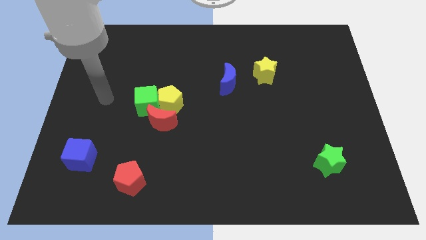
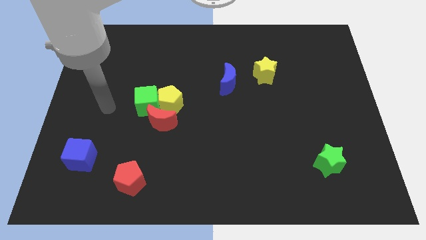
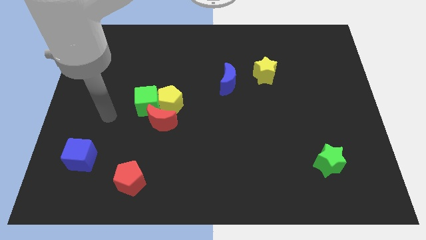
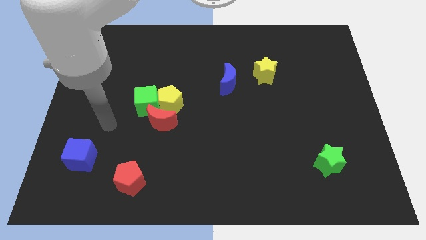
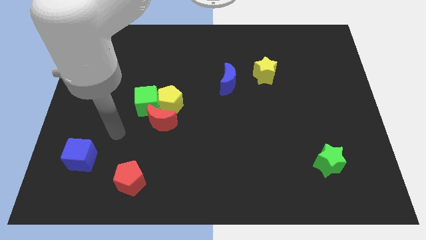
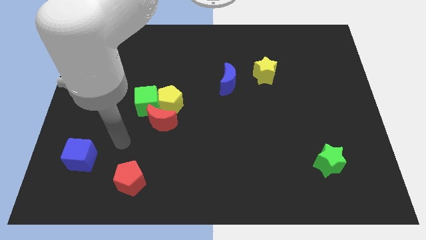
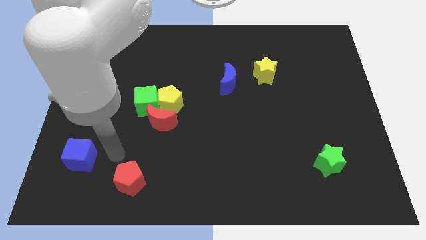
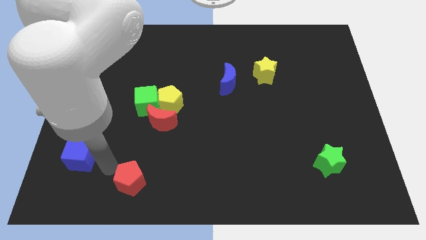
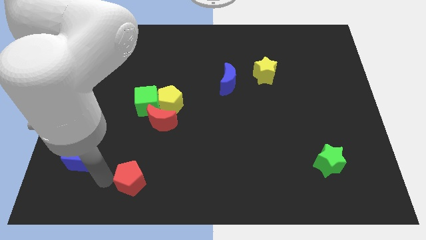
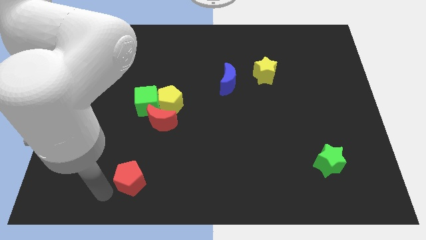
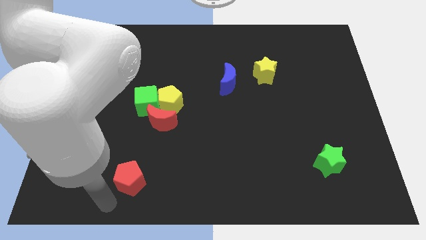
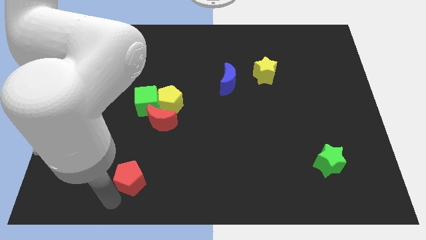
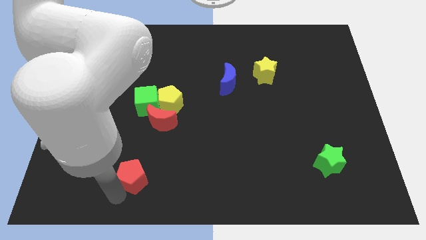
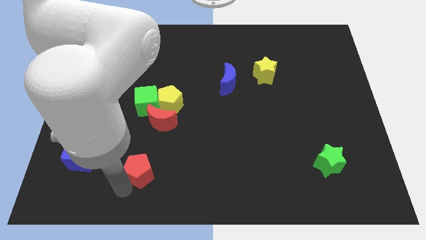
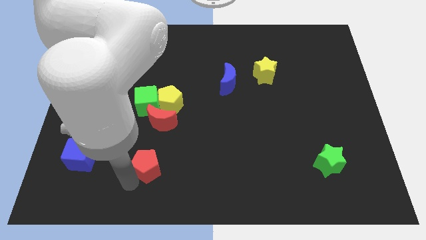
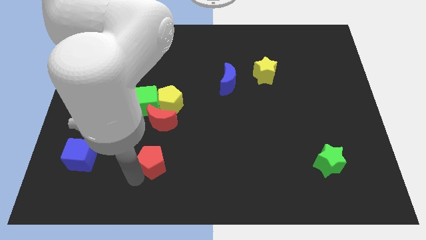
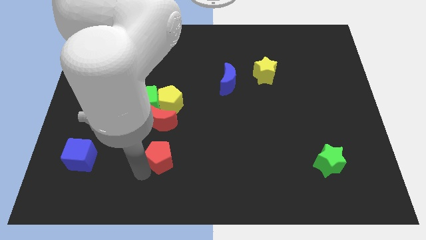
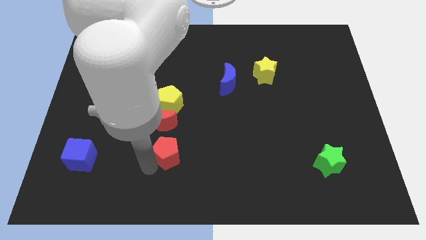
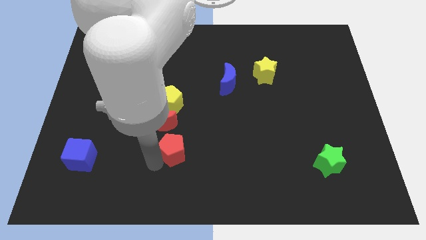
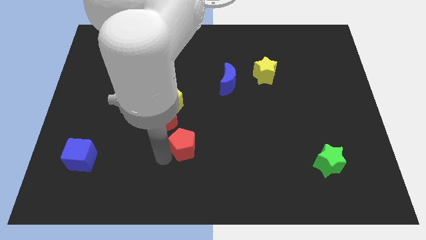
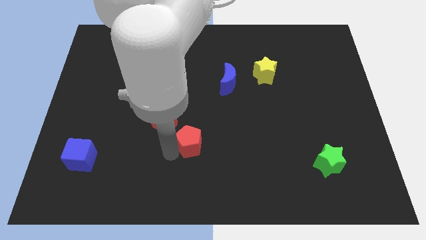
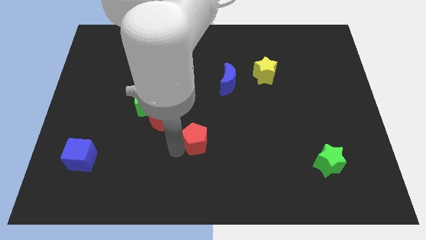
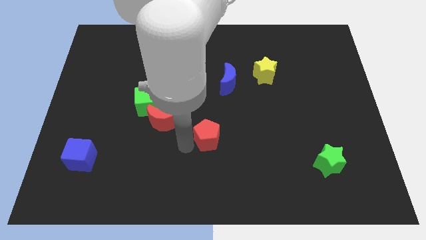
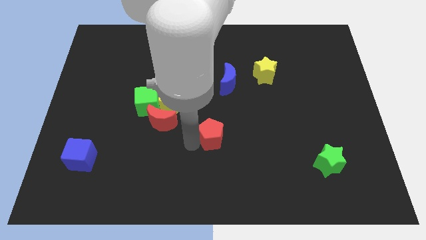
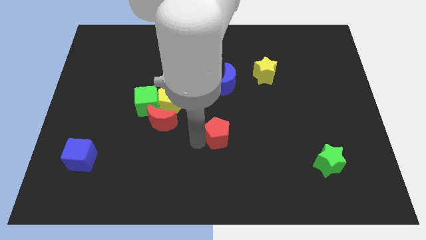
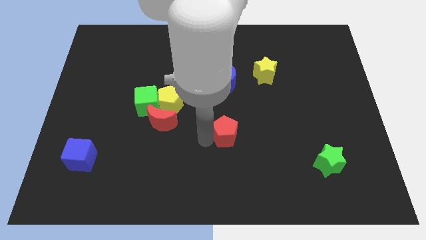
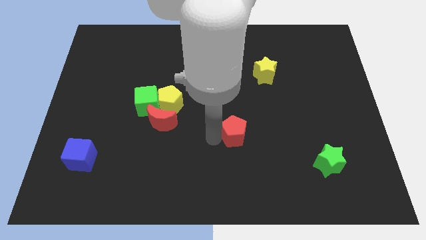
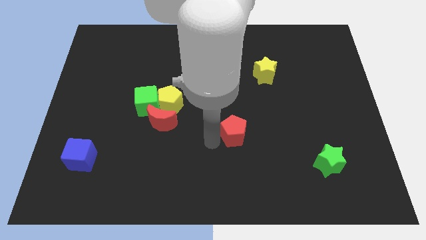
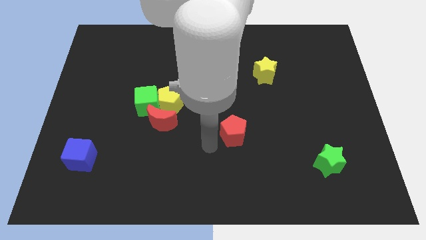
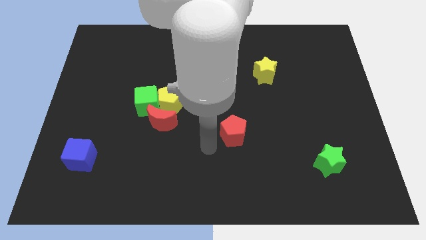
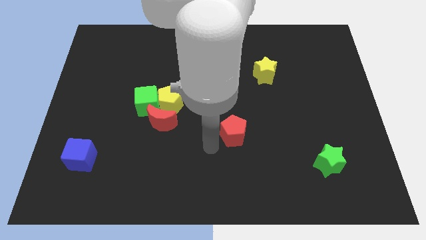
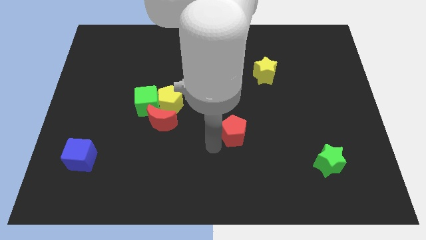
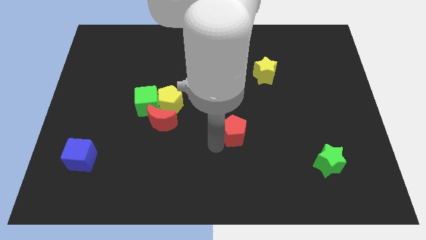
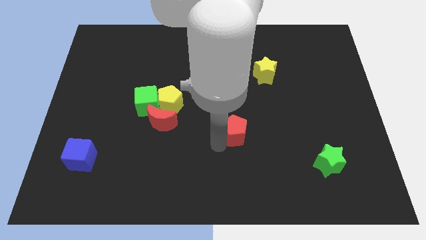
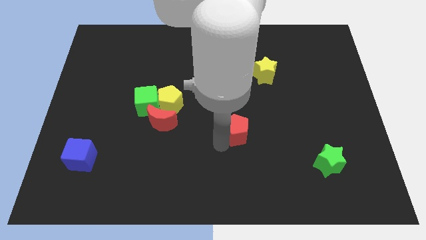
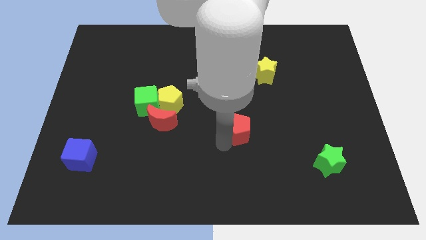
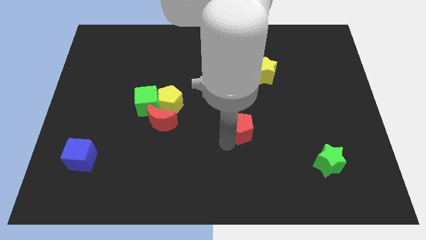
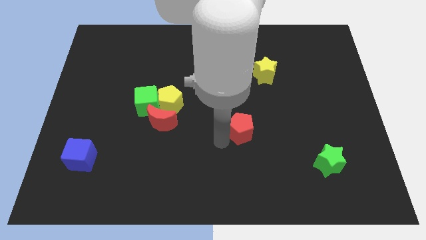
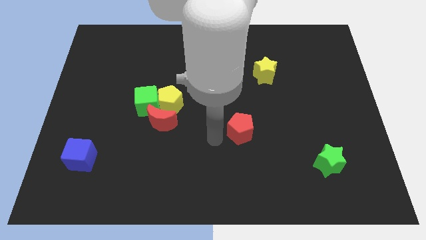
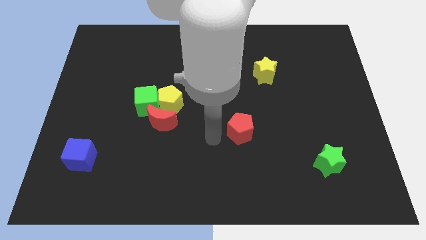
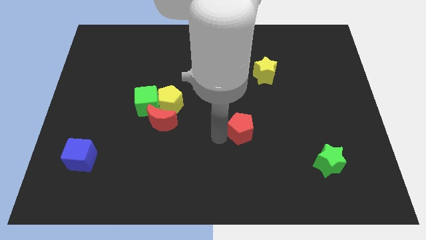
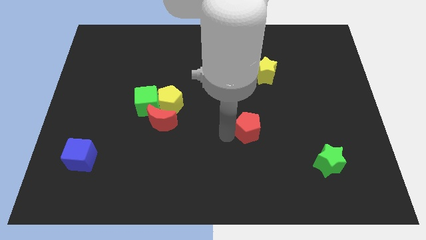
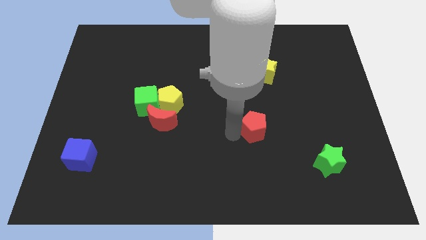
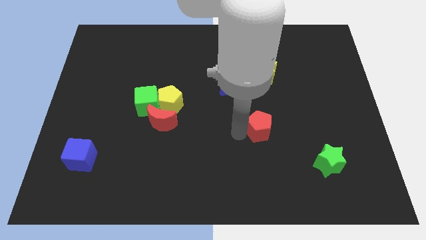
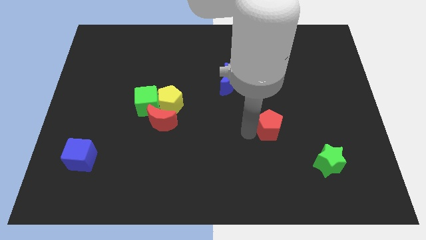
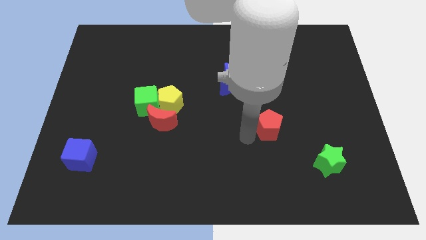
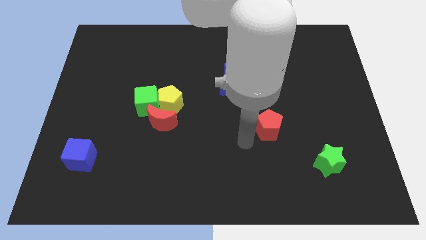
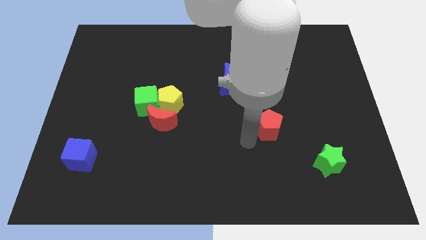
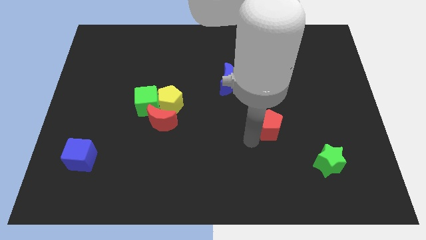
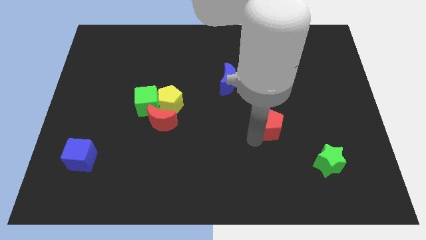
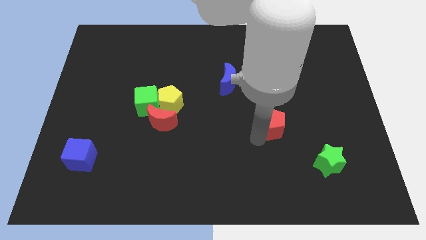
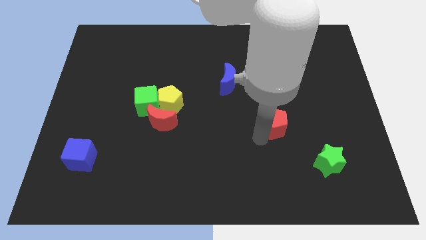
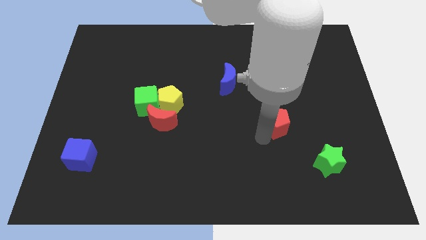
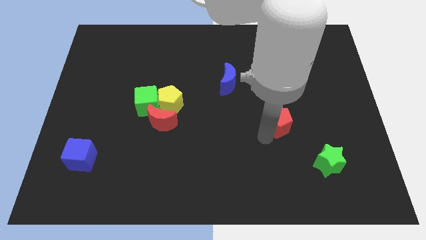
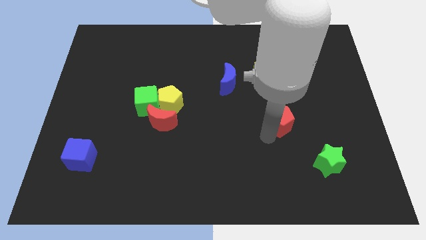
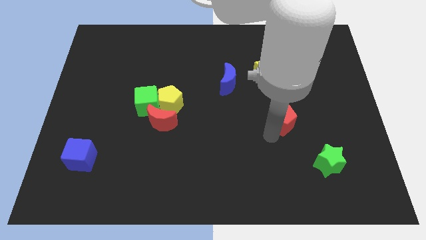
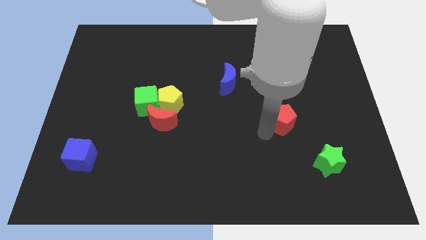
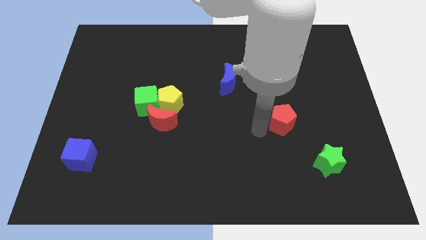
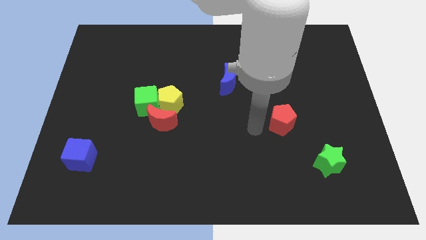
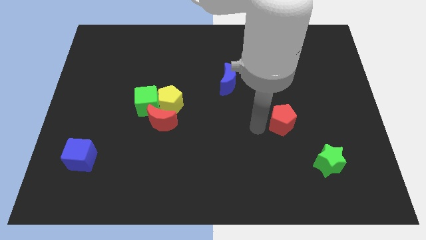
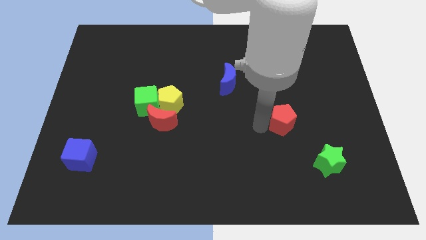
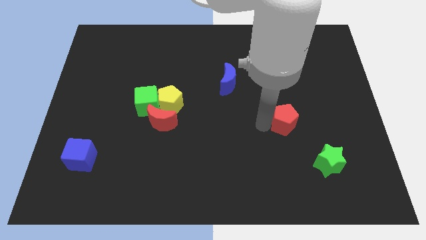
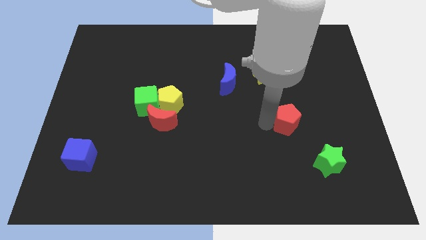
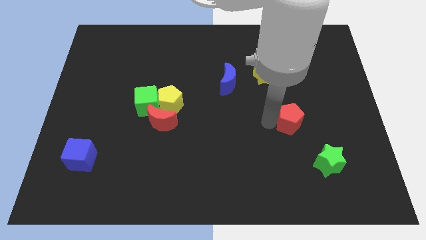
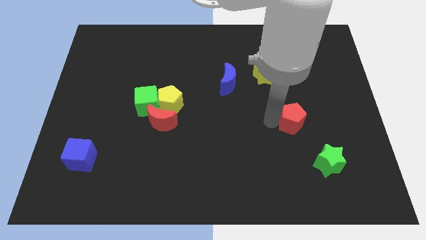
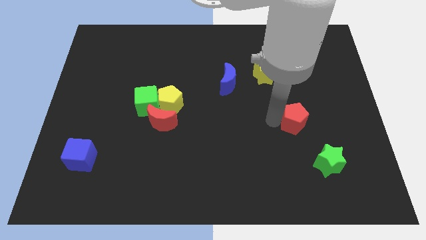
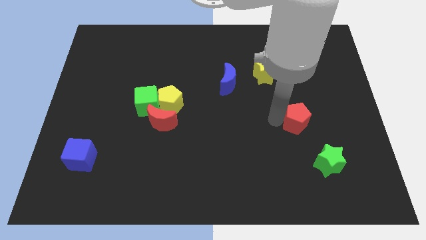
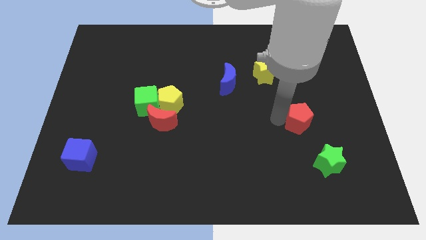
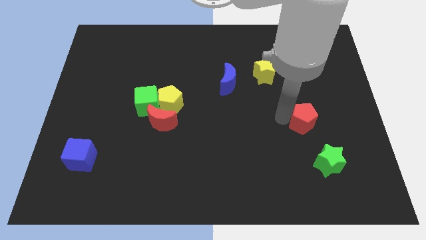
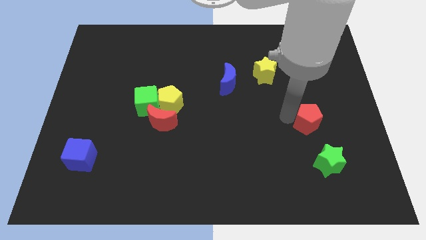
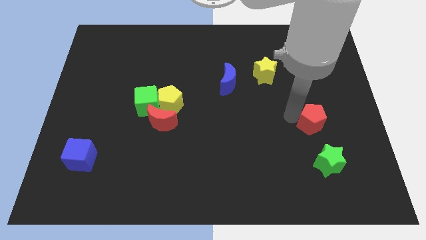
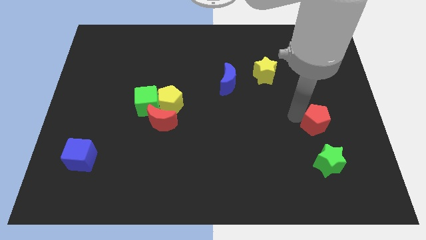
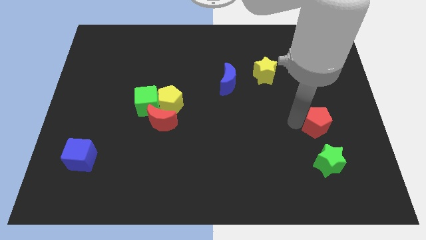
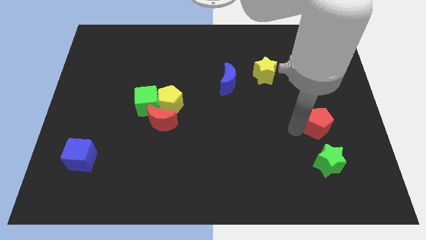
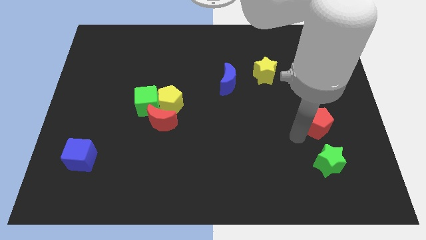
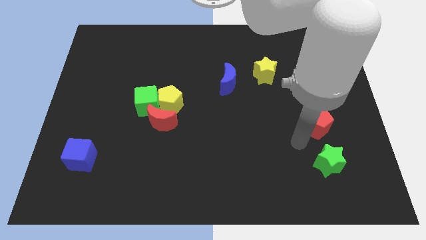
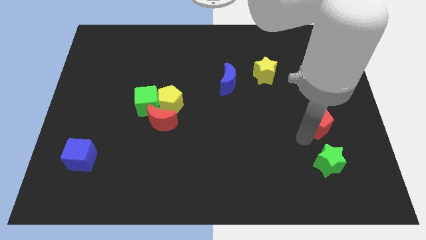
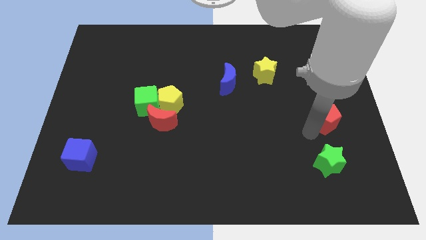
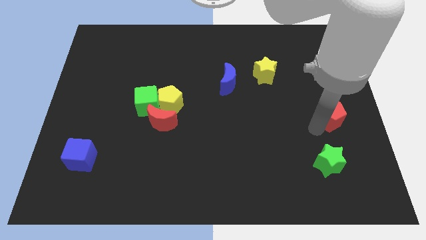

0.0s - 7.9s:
push the red pentagon to the right side

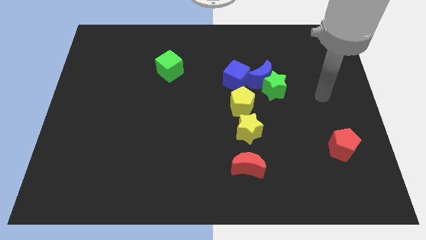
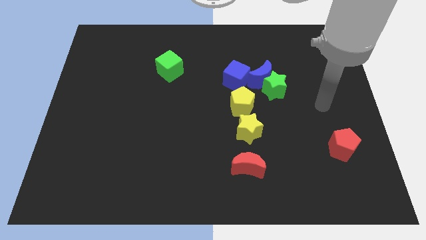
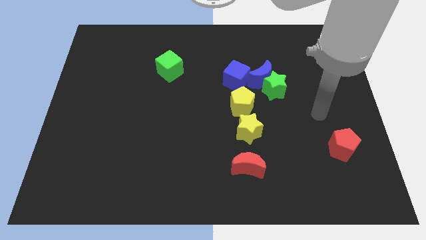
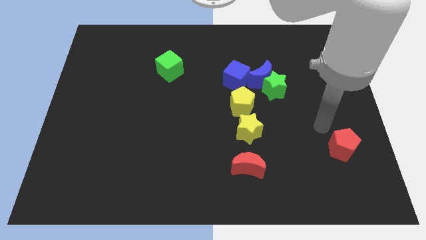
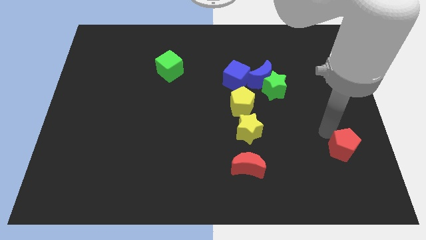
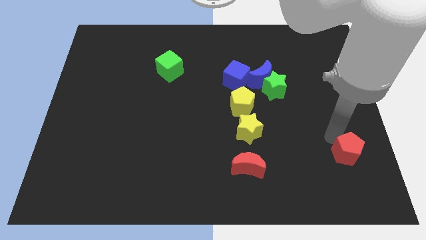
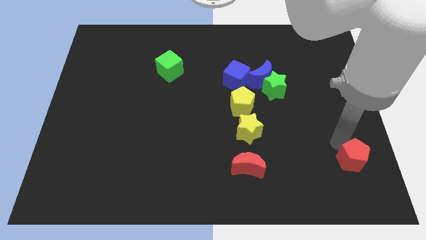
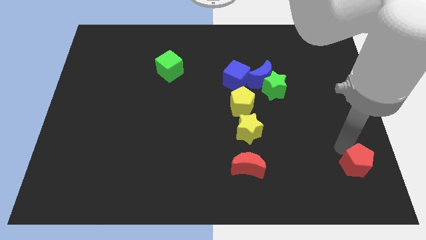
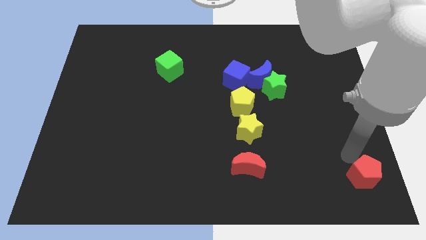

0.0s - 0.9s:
move the red pentagon to the lower right corner
